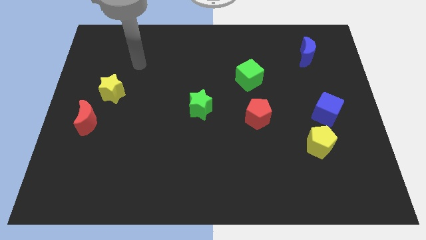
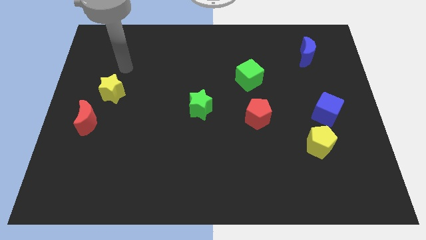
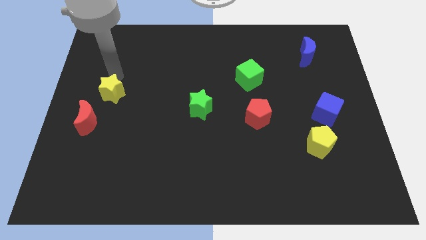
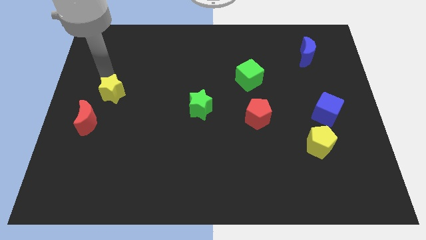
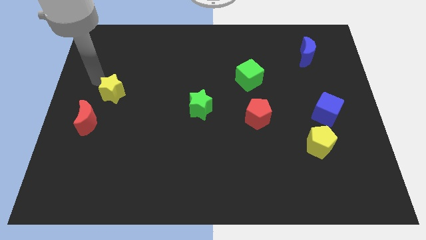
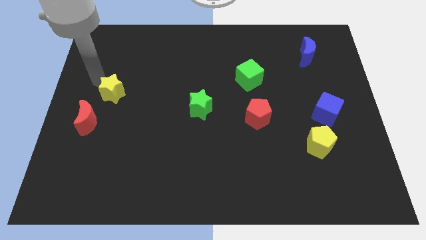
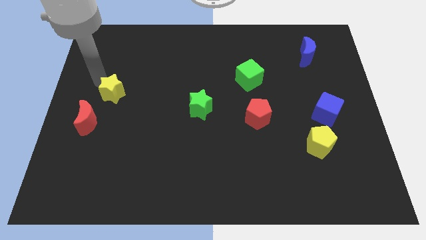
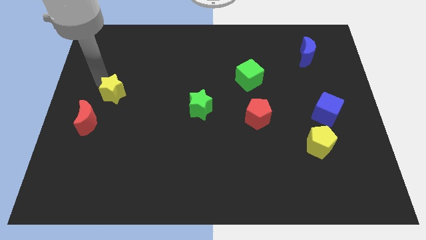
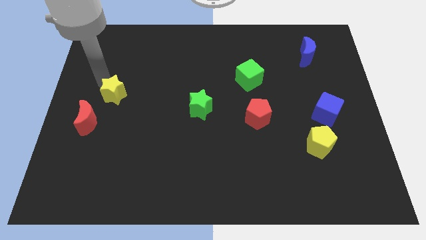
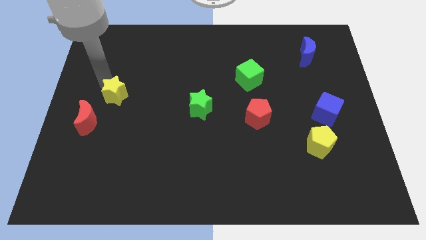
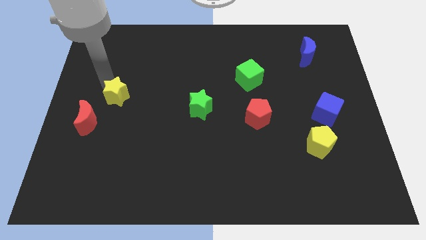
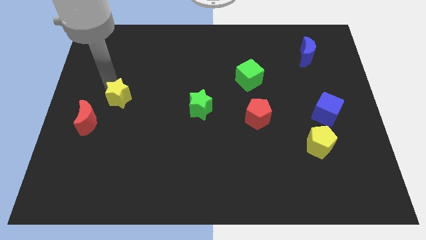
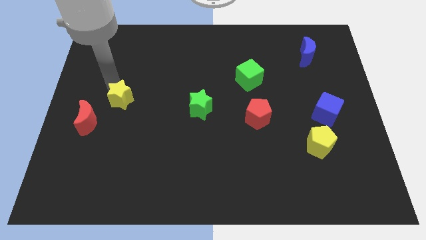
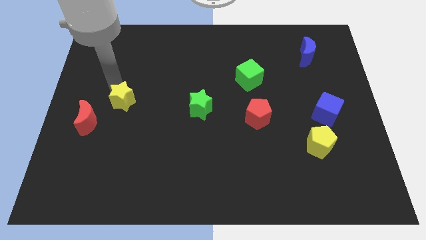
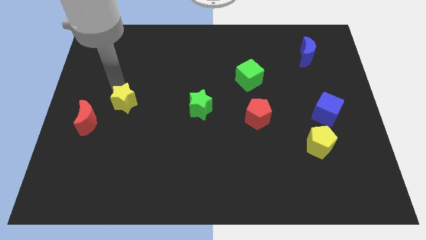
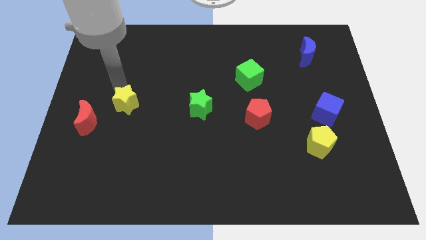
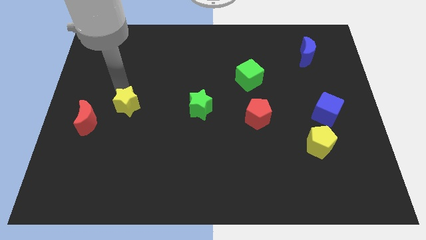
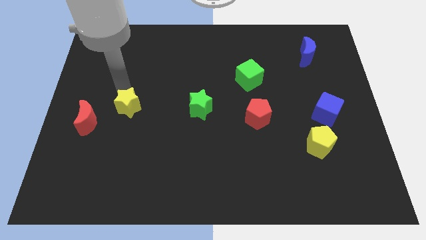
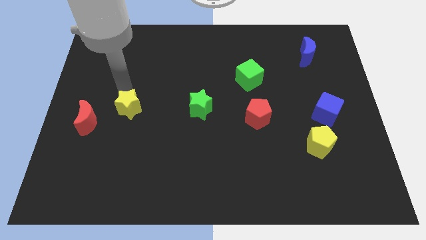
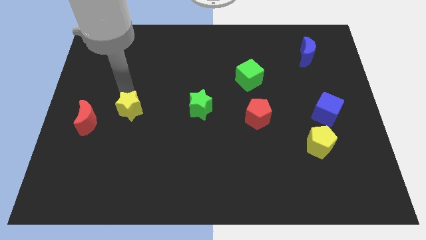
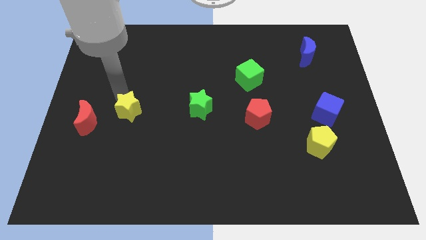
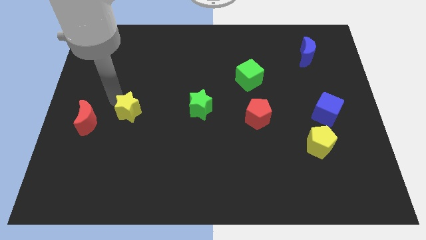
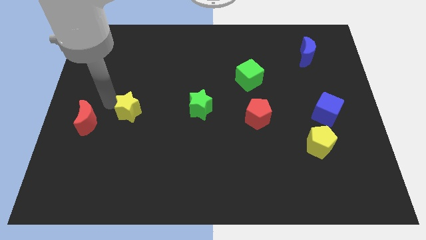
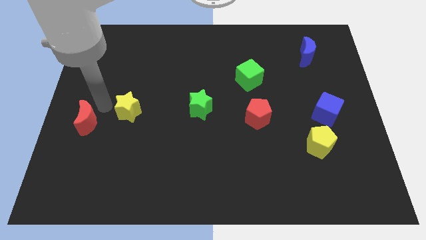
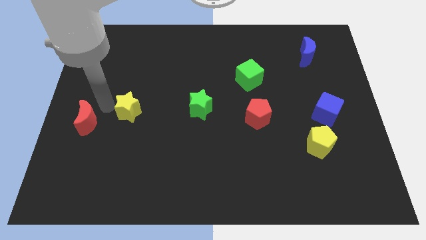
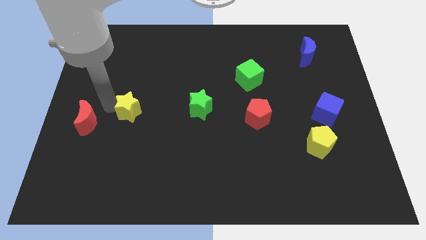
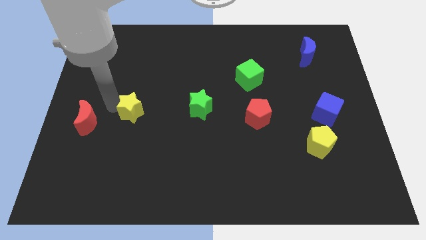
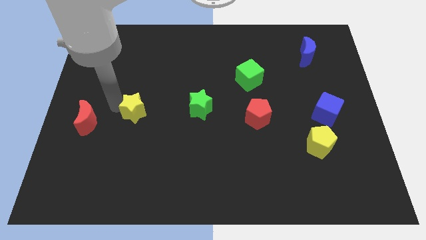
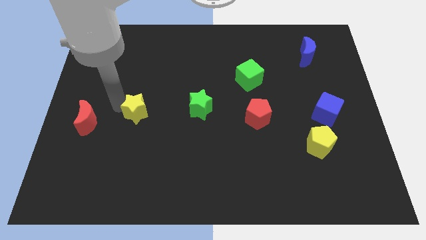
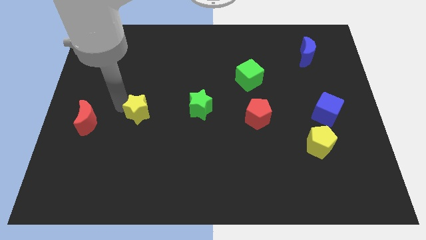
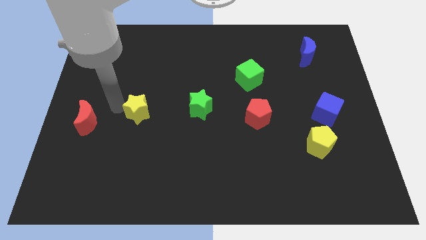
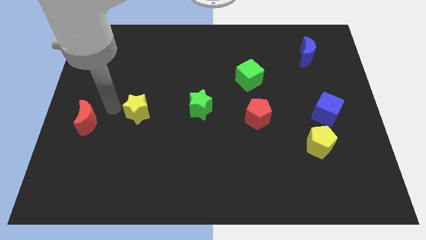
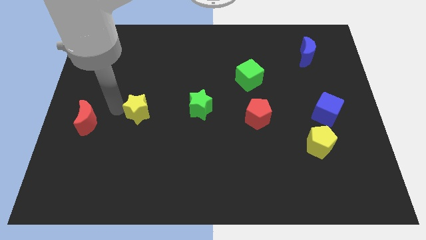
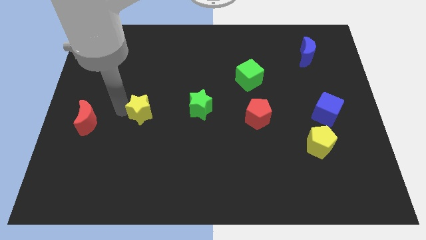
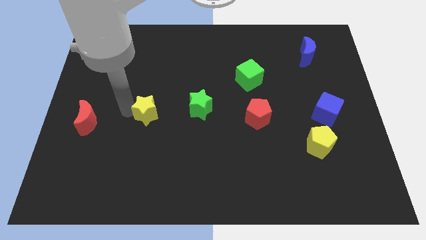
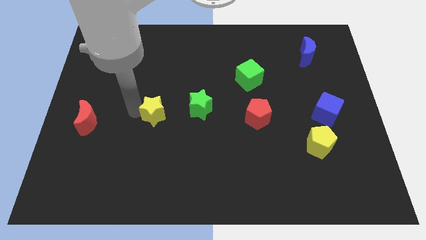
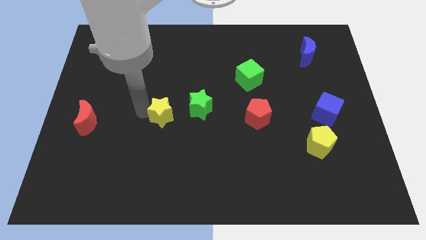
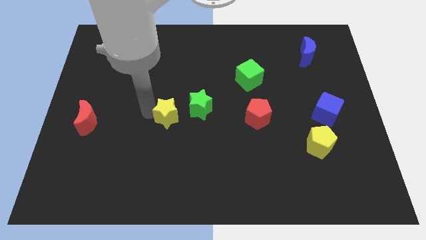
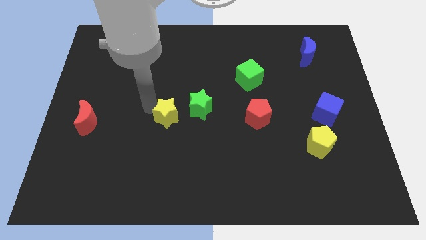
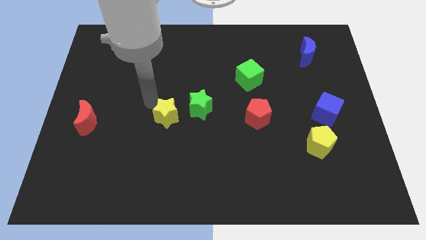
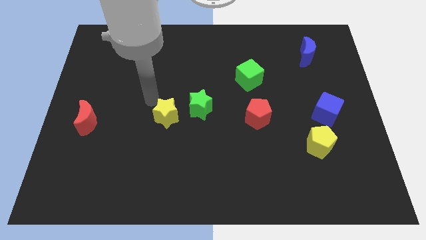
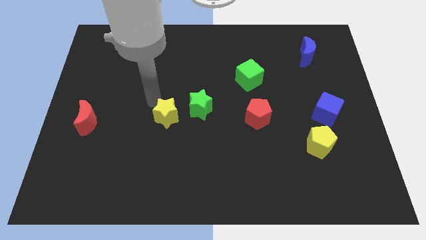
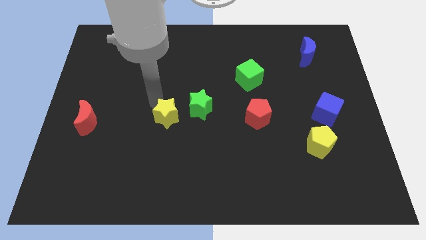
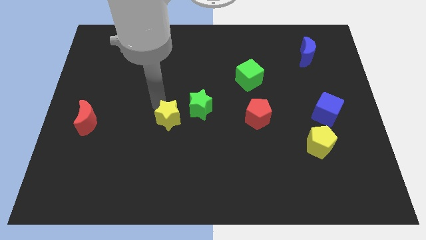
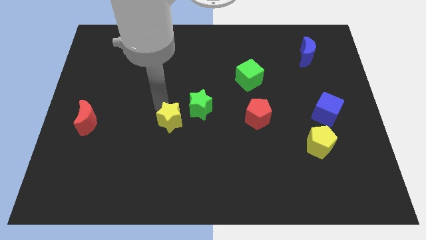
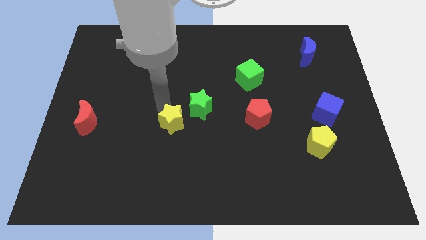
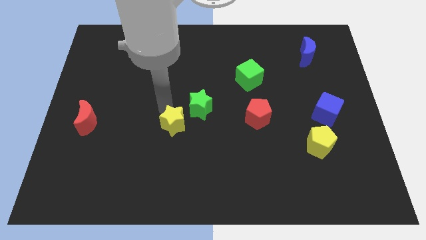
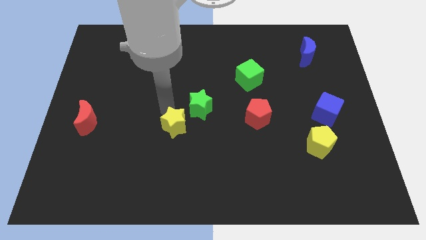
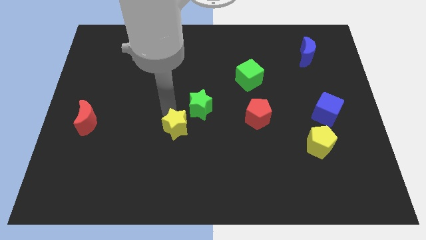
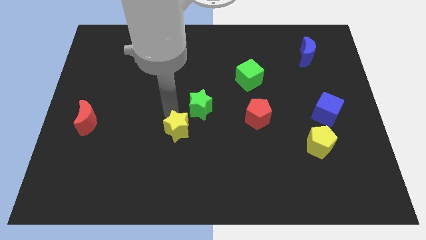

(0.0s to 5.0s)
move the yellow star to the bottom of the green star

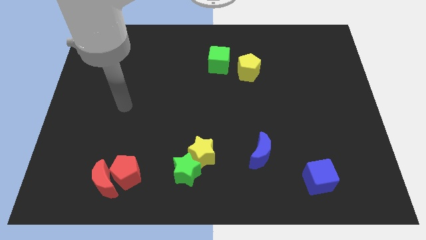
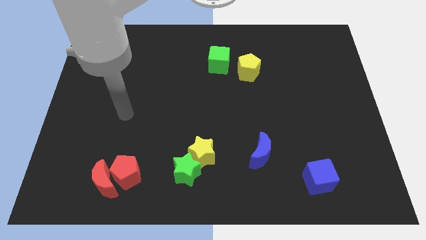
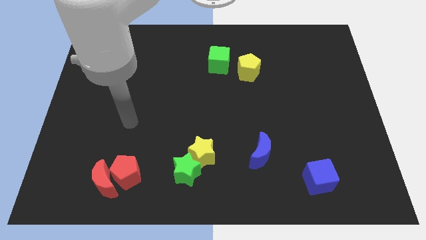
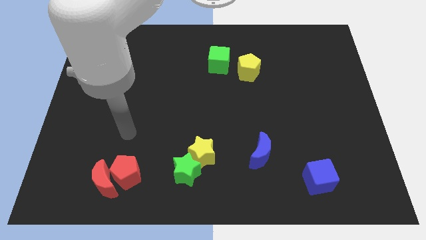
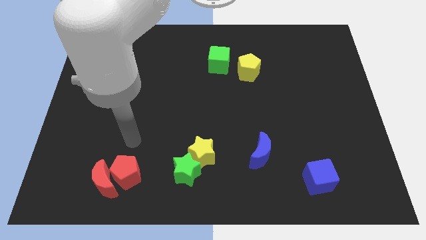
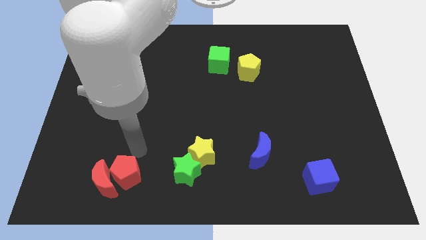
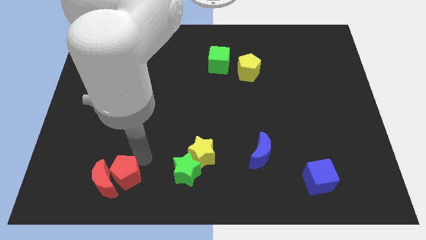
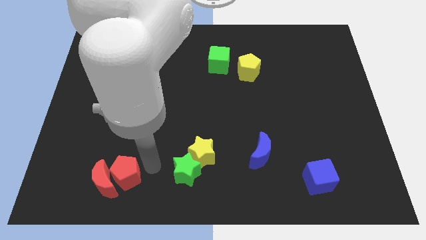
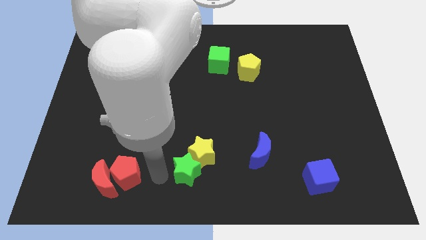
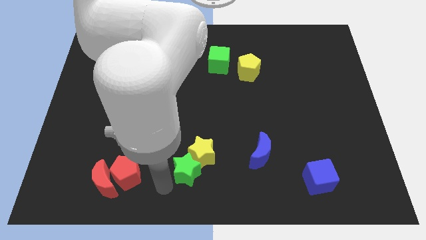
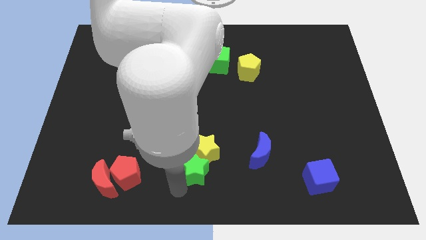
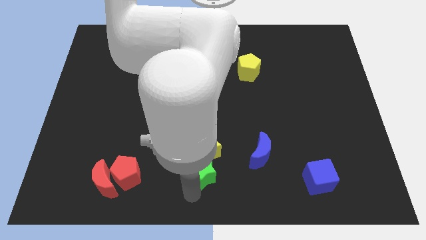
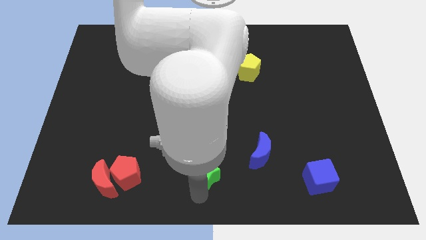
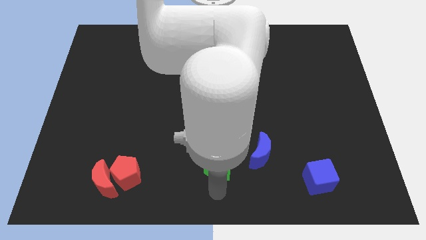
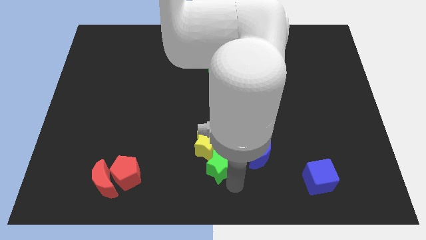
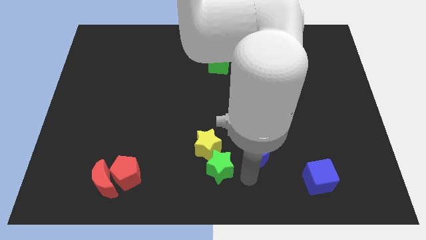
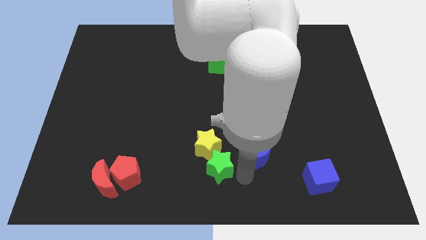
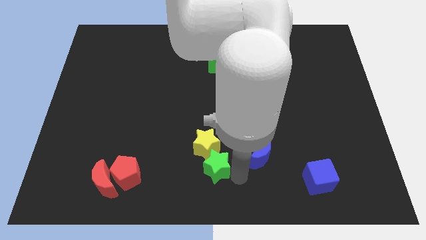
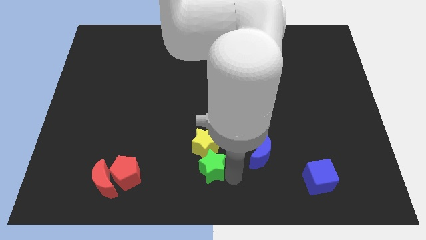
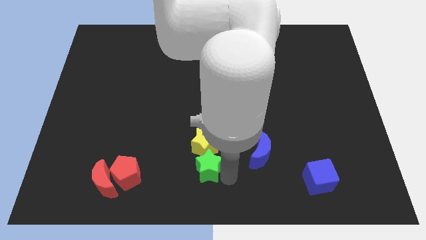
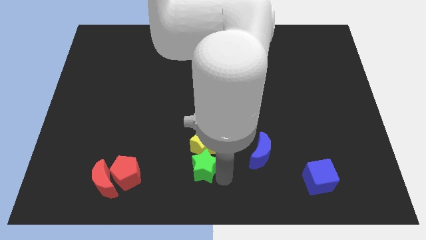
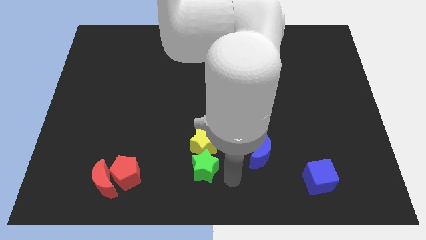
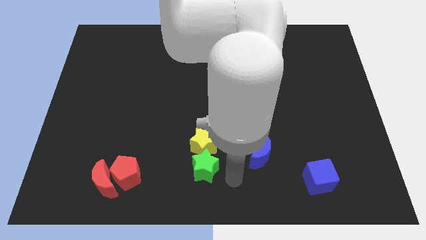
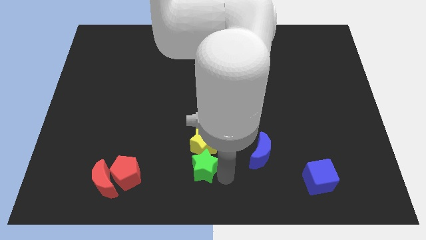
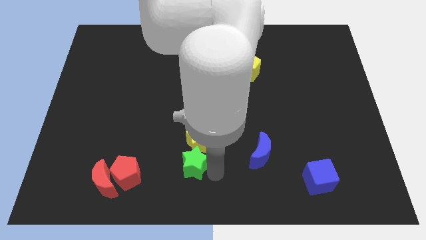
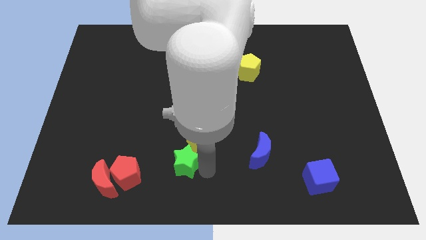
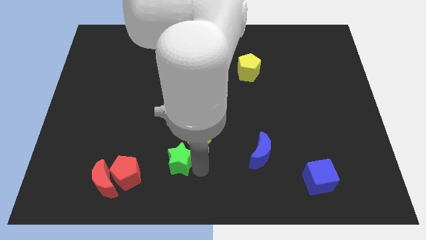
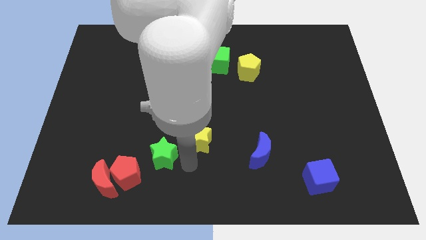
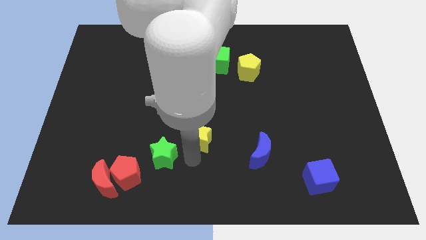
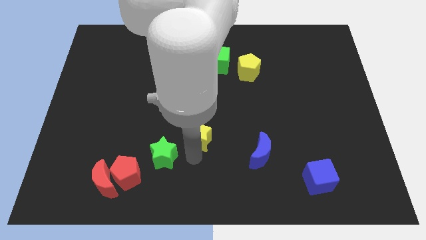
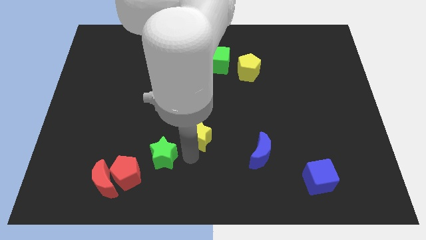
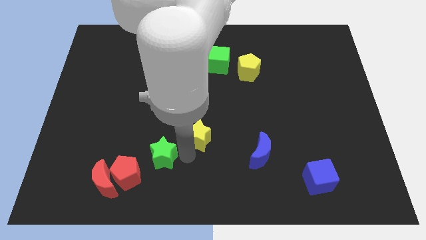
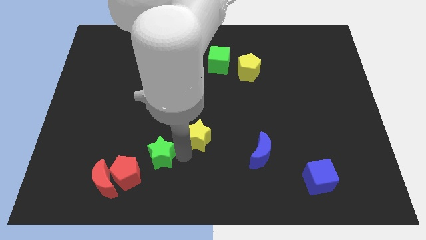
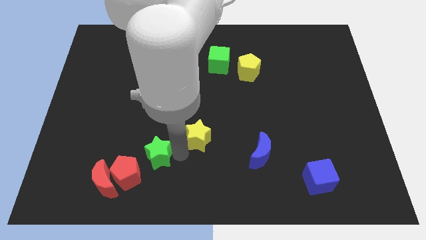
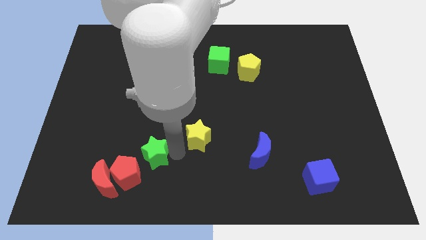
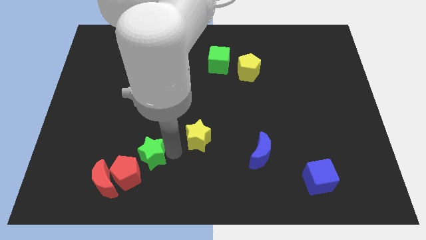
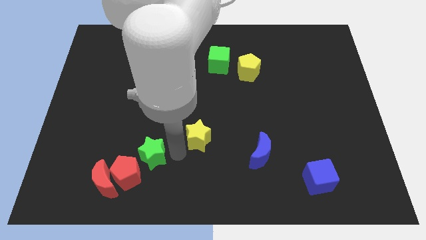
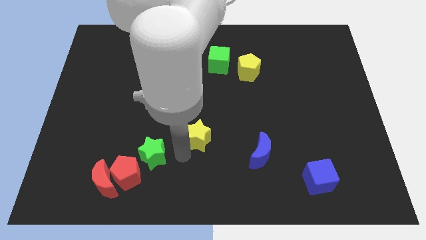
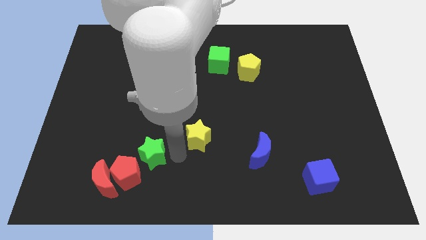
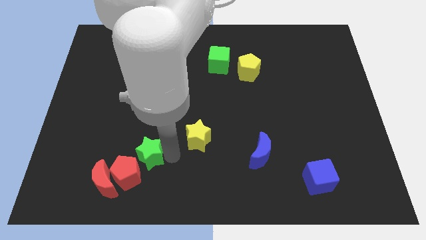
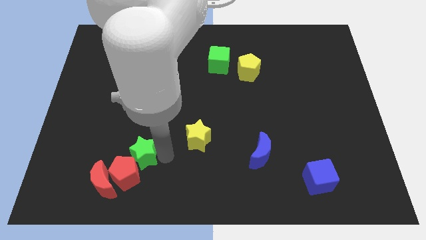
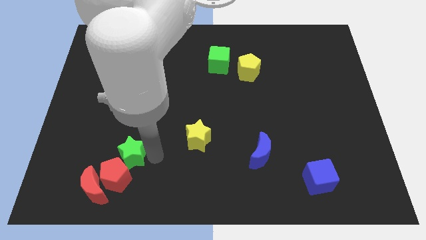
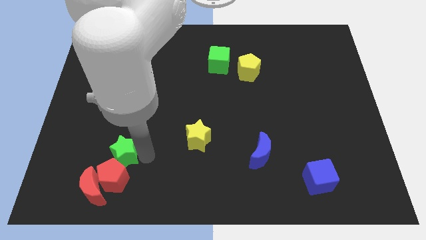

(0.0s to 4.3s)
move the green star to the top left side of the red pentagon
